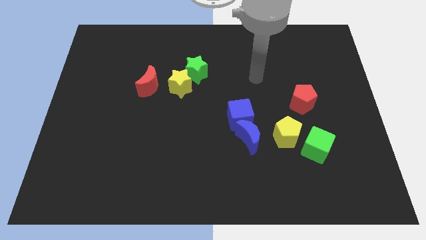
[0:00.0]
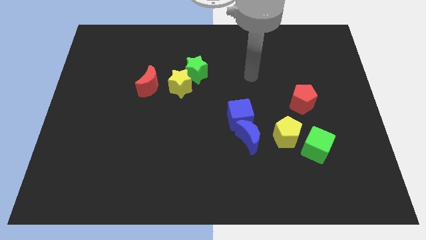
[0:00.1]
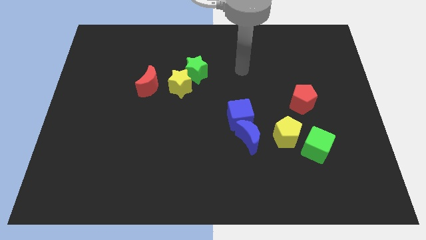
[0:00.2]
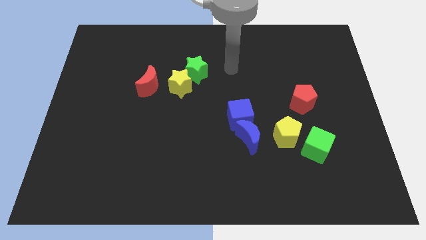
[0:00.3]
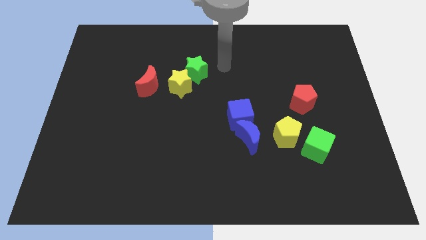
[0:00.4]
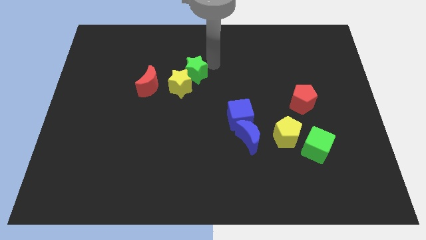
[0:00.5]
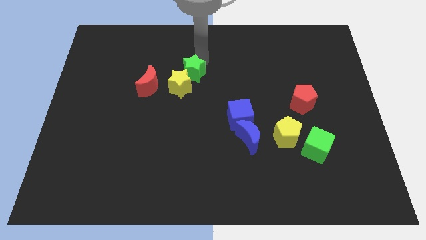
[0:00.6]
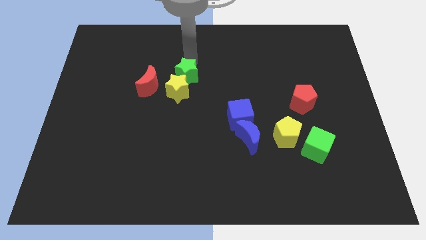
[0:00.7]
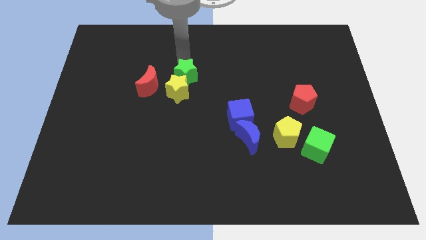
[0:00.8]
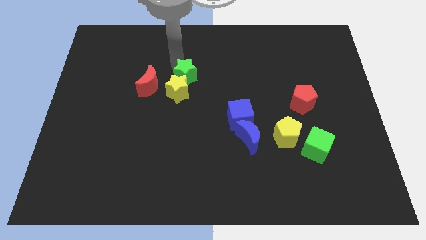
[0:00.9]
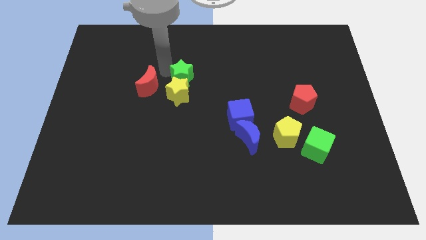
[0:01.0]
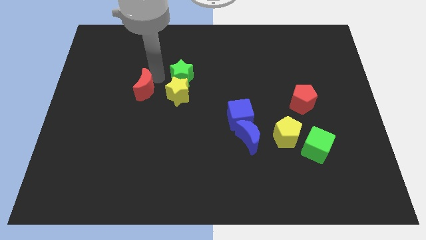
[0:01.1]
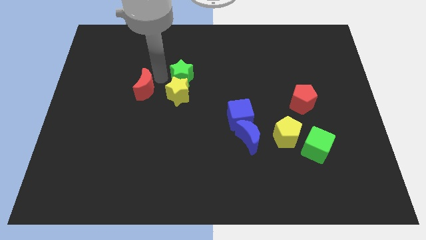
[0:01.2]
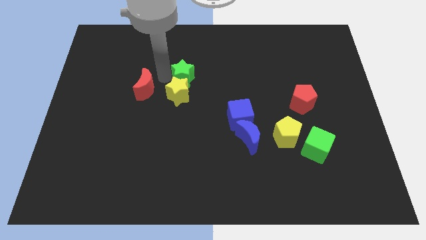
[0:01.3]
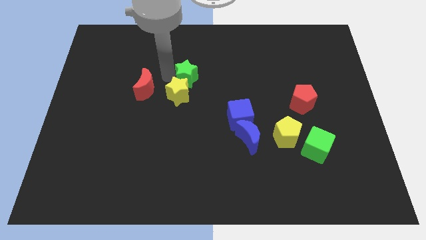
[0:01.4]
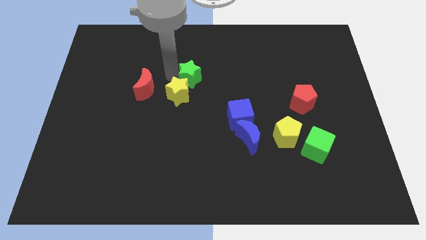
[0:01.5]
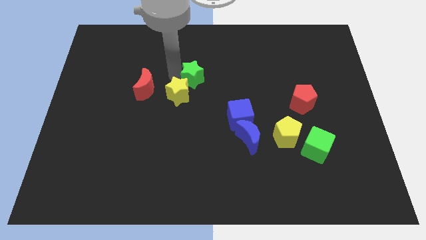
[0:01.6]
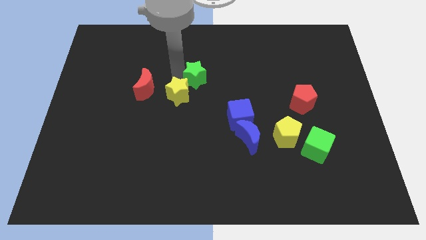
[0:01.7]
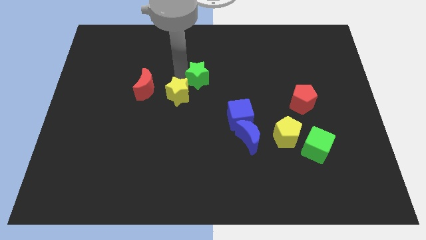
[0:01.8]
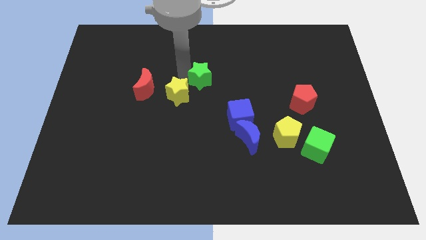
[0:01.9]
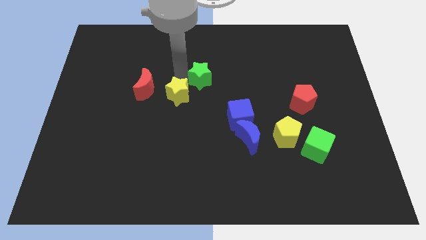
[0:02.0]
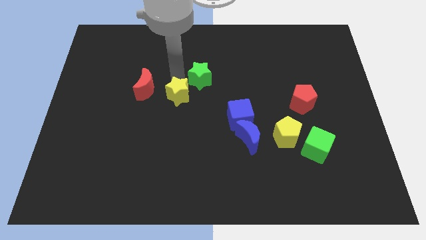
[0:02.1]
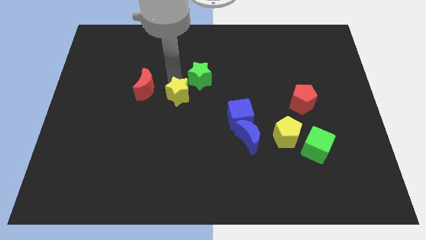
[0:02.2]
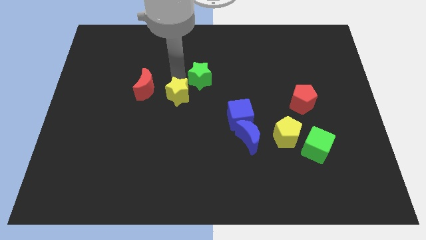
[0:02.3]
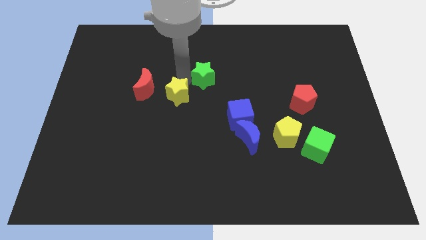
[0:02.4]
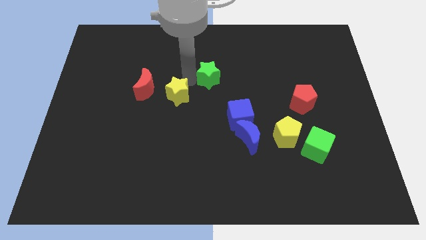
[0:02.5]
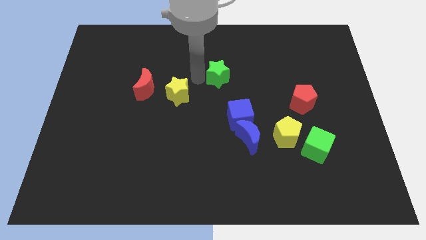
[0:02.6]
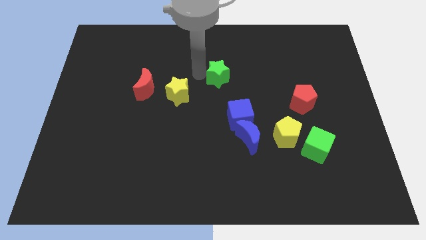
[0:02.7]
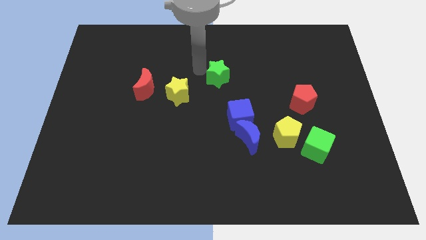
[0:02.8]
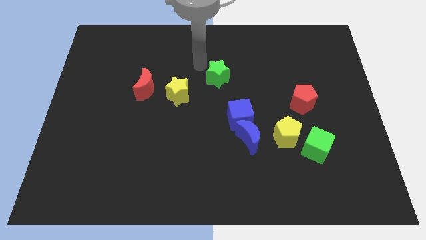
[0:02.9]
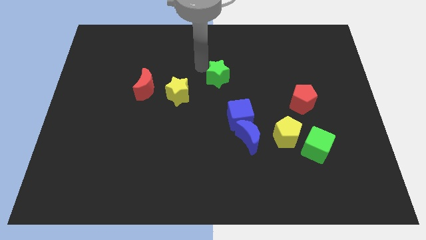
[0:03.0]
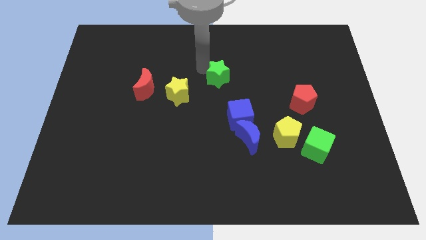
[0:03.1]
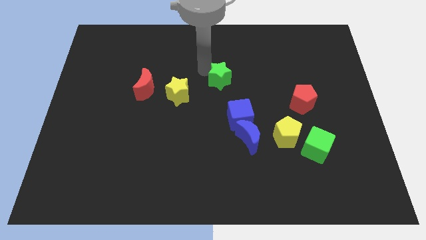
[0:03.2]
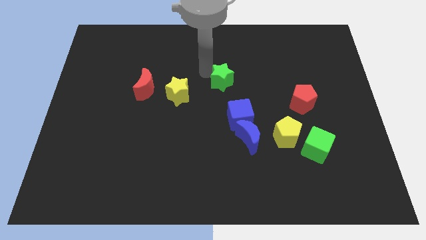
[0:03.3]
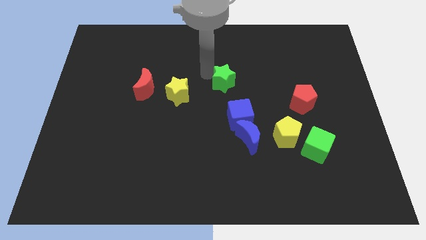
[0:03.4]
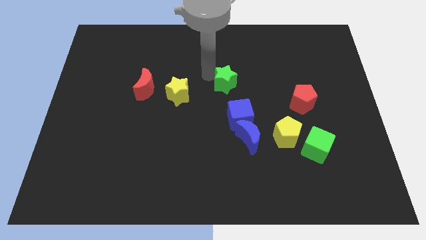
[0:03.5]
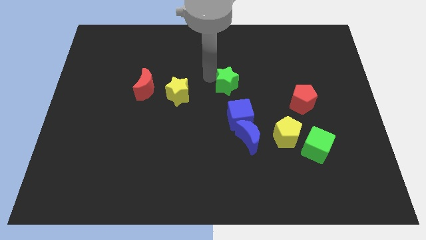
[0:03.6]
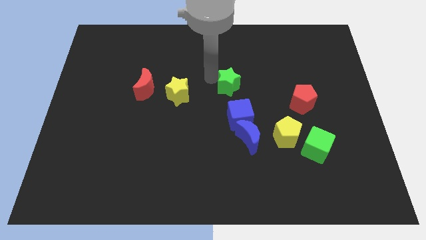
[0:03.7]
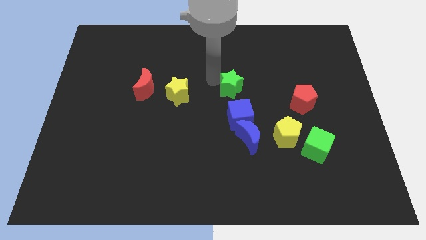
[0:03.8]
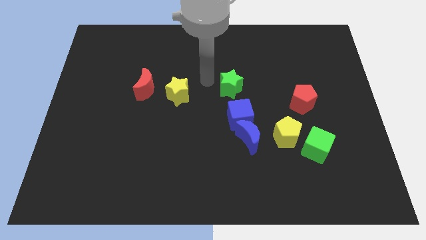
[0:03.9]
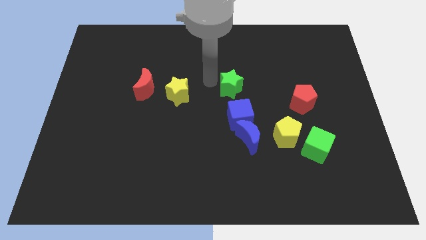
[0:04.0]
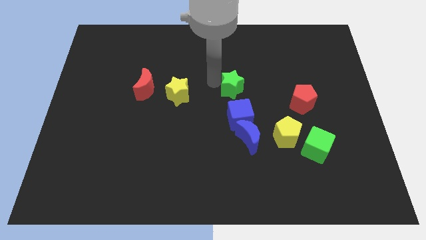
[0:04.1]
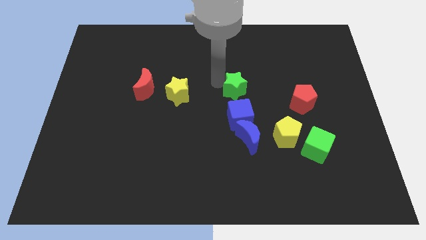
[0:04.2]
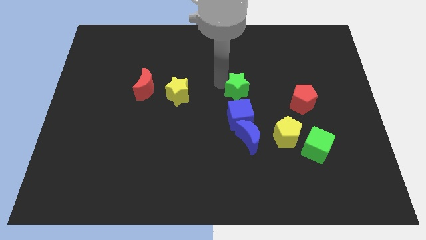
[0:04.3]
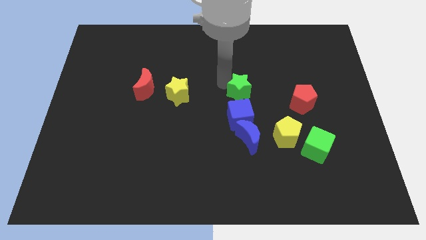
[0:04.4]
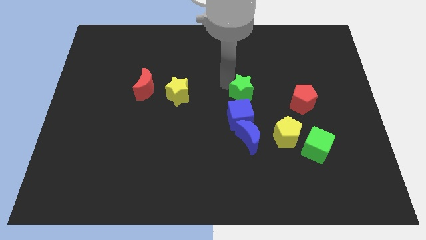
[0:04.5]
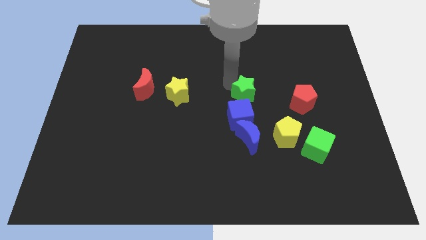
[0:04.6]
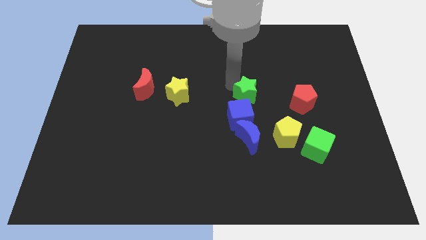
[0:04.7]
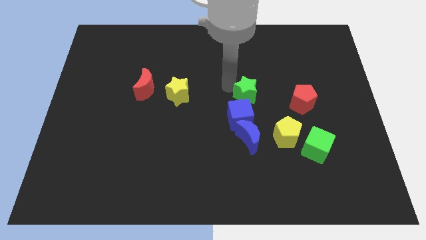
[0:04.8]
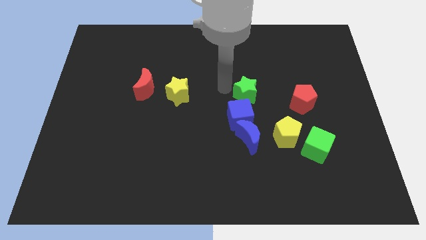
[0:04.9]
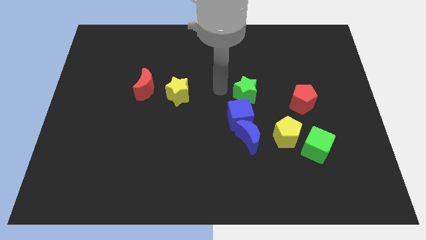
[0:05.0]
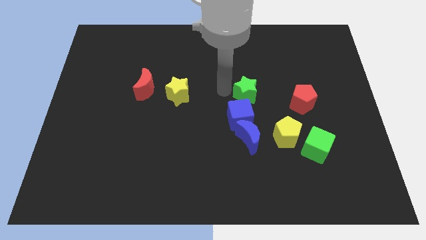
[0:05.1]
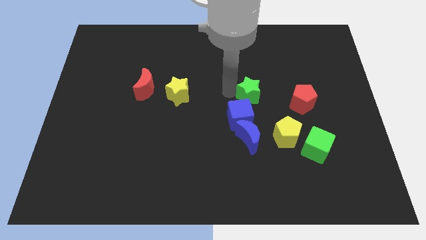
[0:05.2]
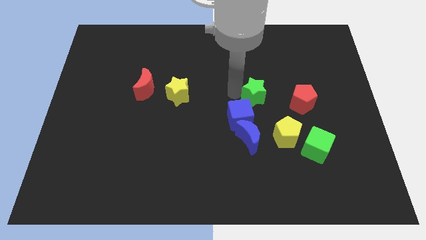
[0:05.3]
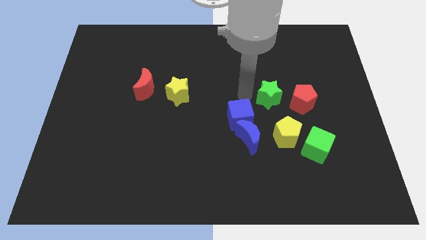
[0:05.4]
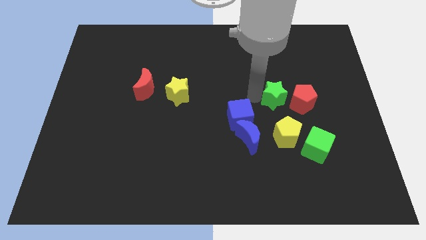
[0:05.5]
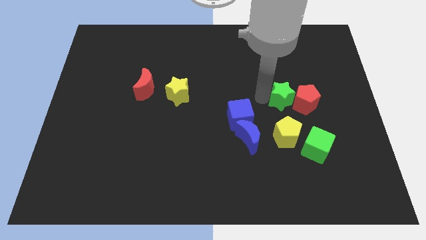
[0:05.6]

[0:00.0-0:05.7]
put the green star to the red pentagon

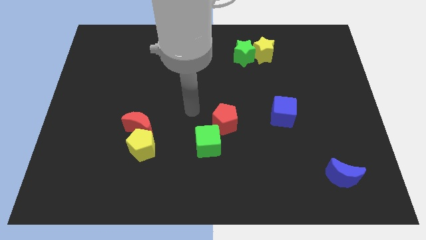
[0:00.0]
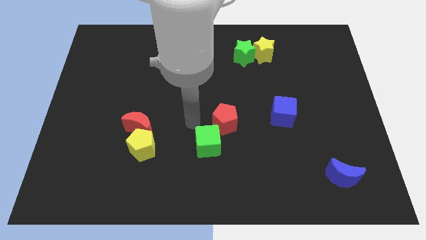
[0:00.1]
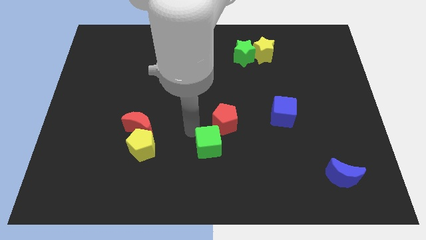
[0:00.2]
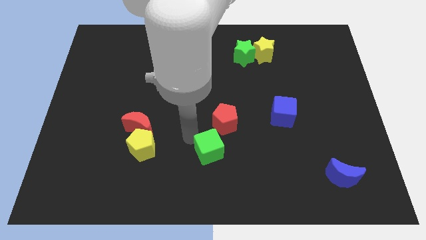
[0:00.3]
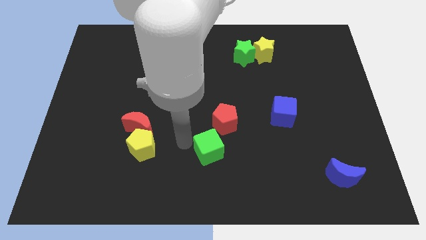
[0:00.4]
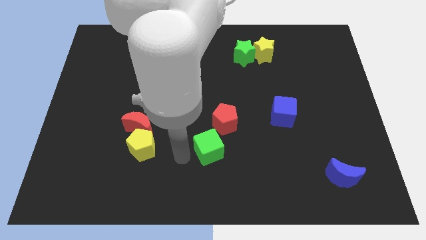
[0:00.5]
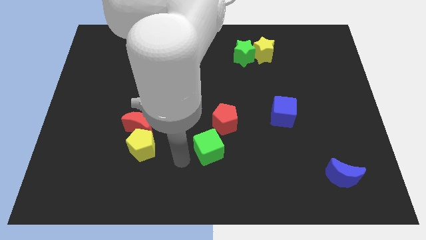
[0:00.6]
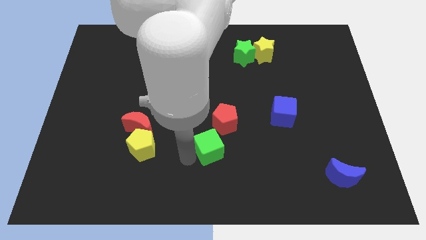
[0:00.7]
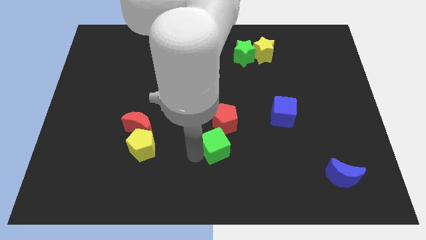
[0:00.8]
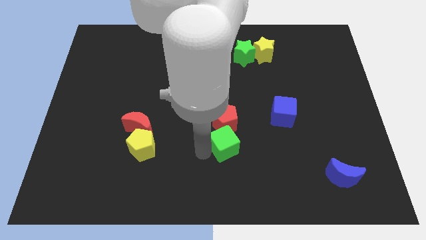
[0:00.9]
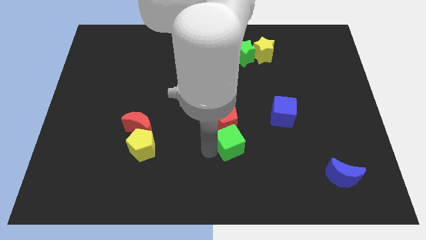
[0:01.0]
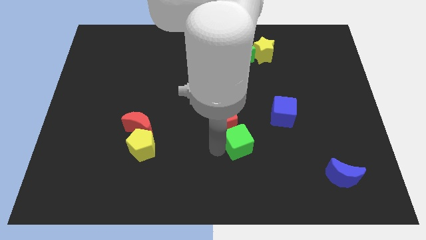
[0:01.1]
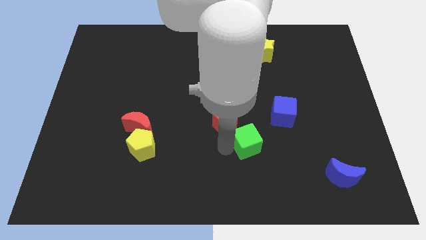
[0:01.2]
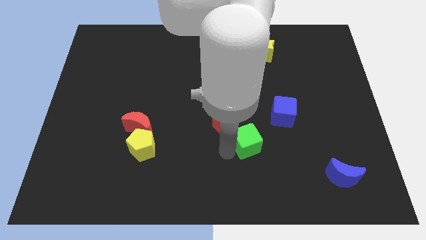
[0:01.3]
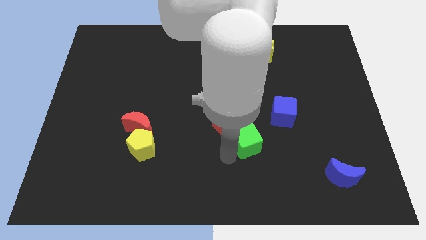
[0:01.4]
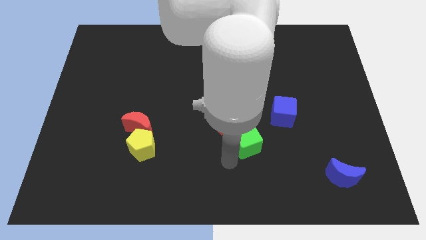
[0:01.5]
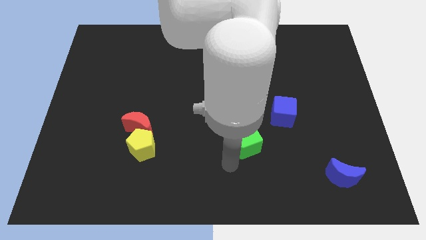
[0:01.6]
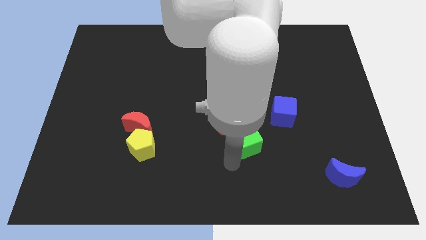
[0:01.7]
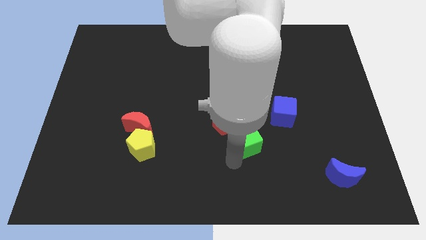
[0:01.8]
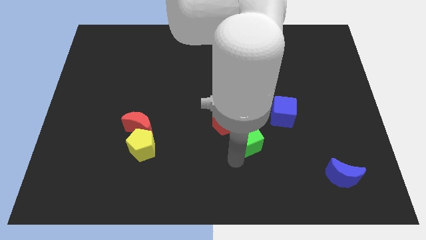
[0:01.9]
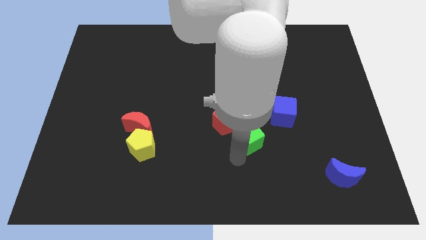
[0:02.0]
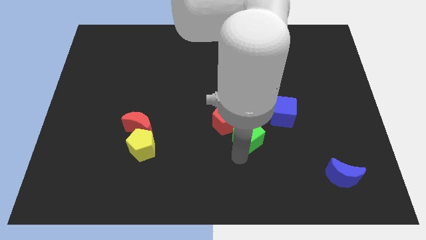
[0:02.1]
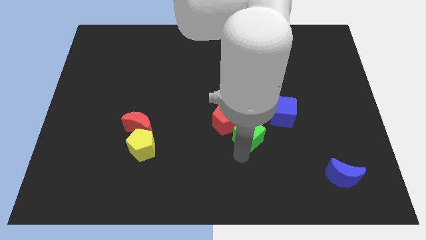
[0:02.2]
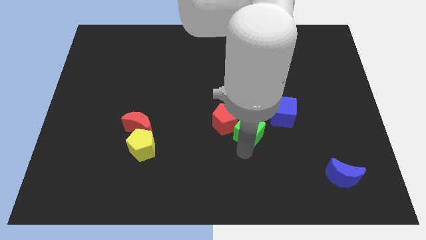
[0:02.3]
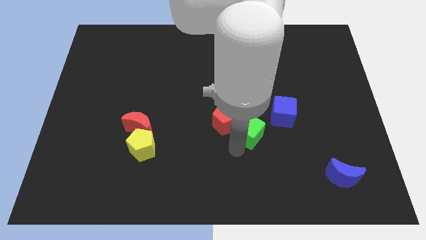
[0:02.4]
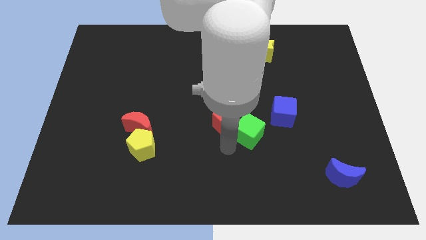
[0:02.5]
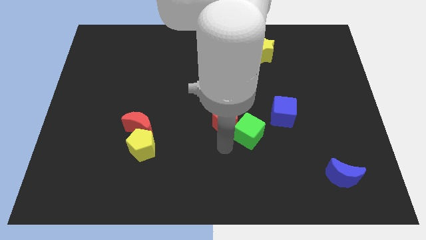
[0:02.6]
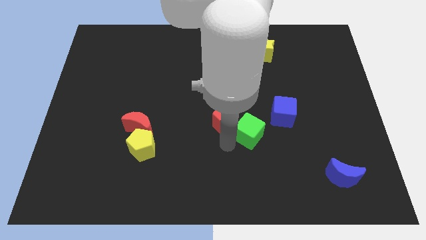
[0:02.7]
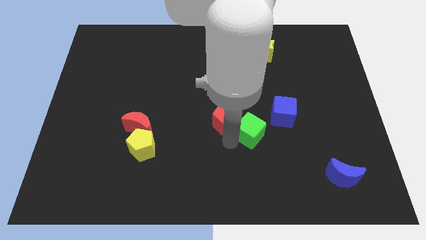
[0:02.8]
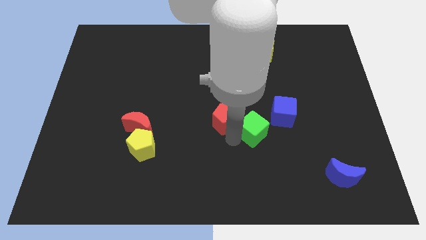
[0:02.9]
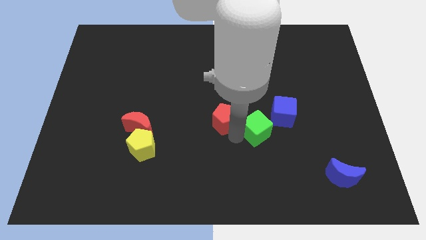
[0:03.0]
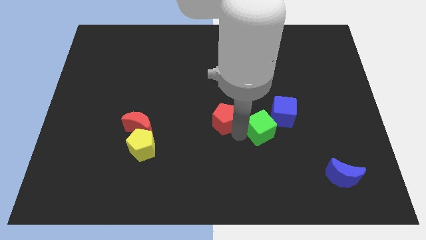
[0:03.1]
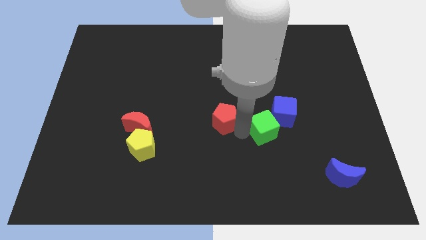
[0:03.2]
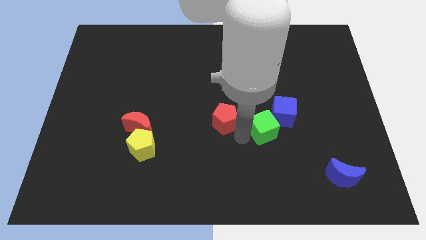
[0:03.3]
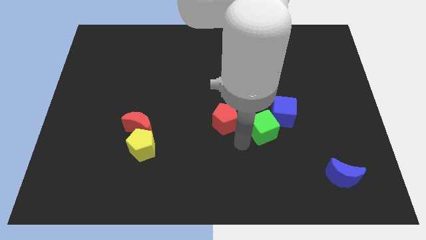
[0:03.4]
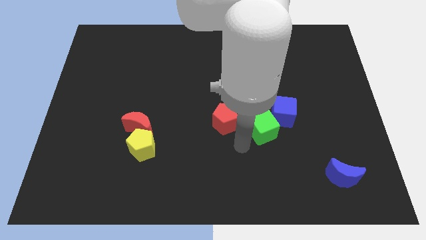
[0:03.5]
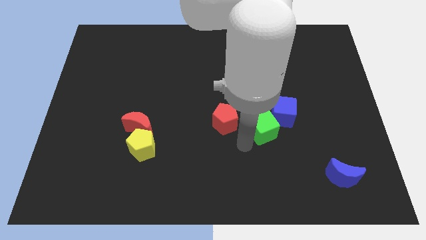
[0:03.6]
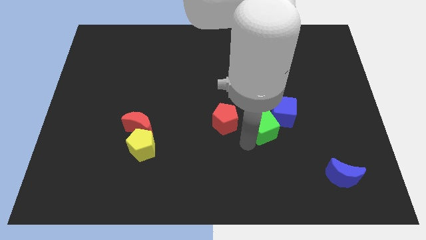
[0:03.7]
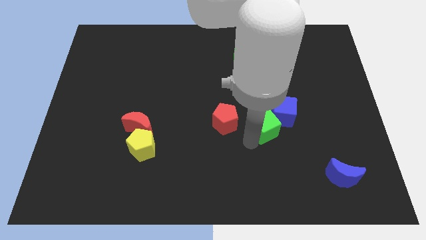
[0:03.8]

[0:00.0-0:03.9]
slide the green cube close to the blue cube
